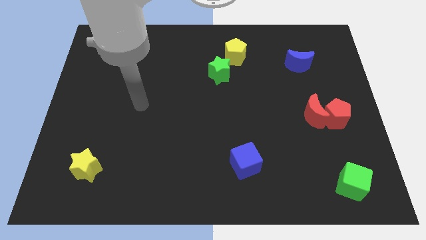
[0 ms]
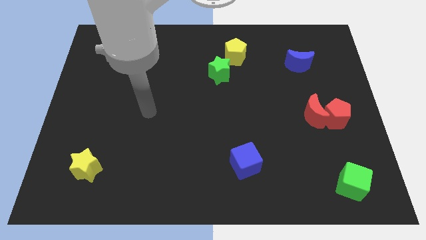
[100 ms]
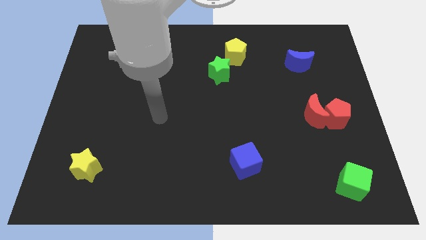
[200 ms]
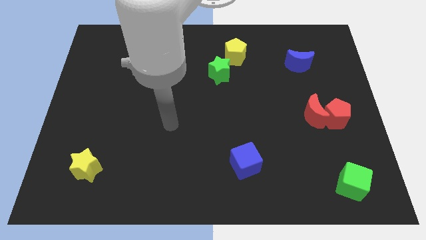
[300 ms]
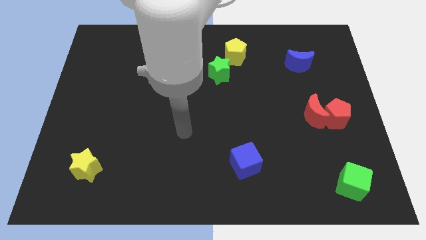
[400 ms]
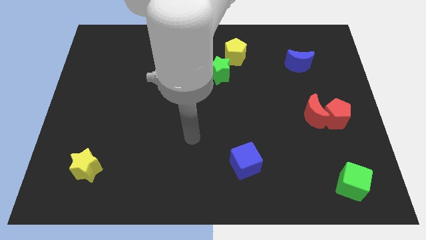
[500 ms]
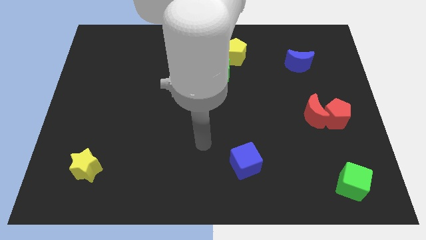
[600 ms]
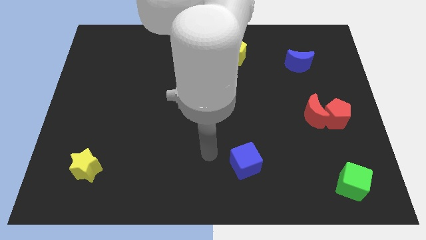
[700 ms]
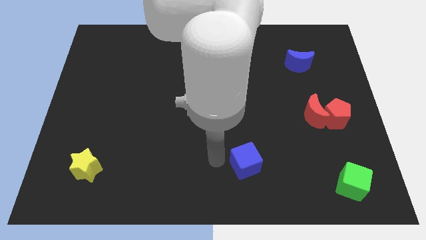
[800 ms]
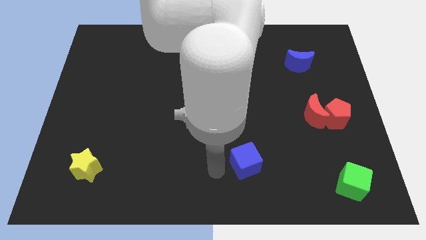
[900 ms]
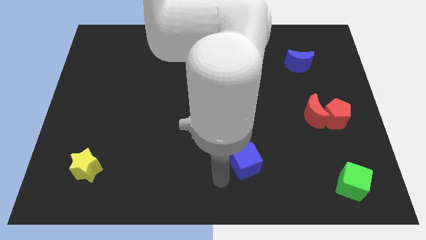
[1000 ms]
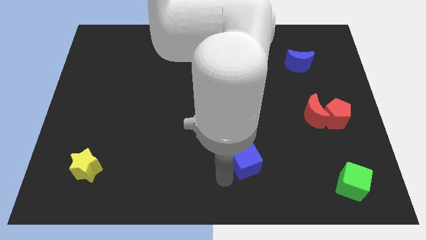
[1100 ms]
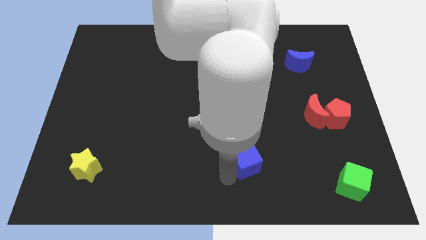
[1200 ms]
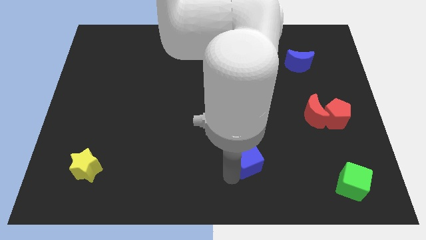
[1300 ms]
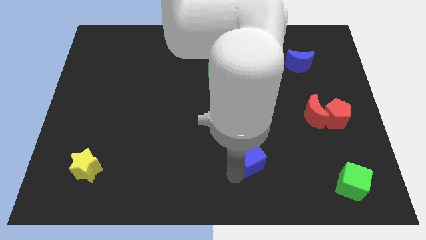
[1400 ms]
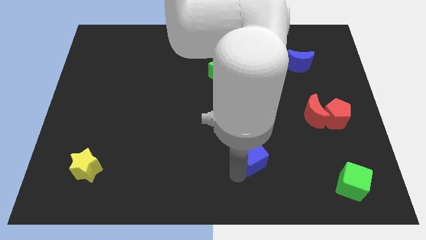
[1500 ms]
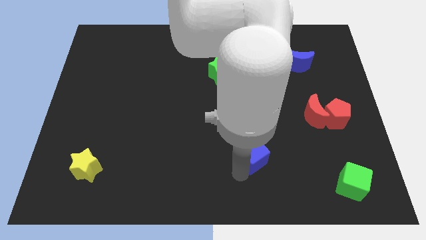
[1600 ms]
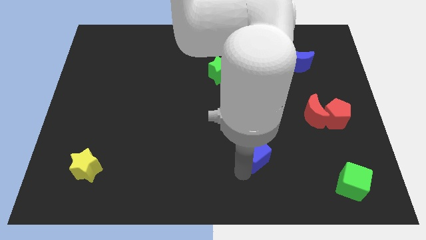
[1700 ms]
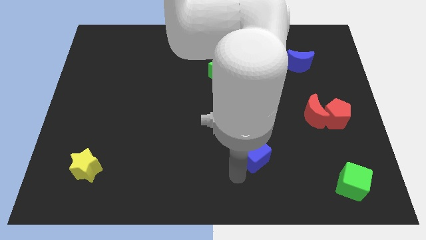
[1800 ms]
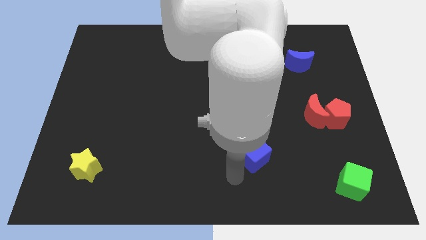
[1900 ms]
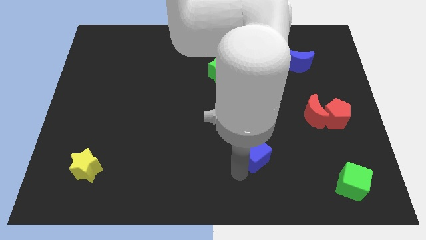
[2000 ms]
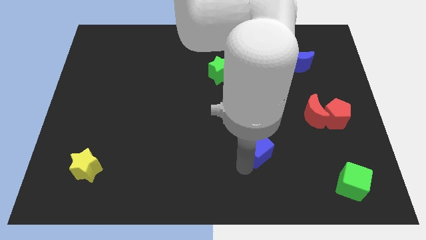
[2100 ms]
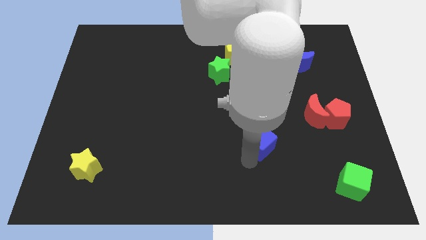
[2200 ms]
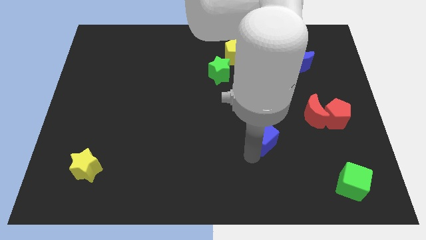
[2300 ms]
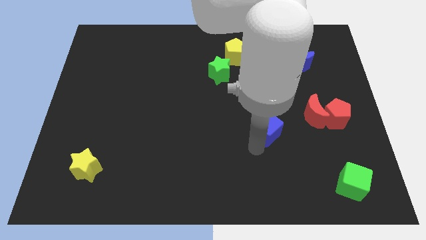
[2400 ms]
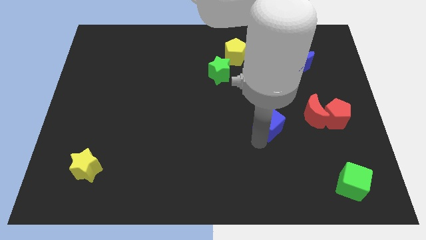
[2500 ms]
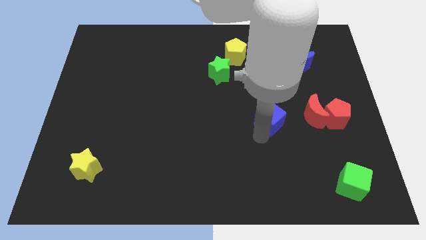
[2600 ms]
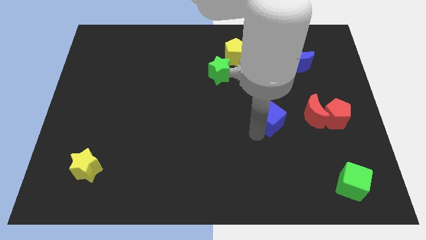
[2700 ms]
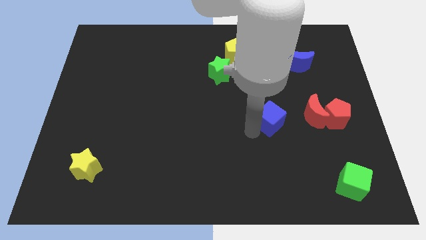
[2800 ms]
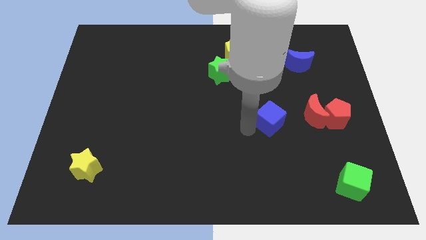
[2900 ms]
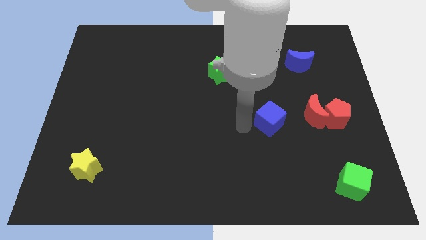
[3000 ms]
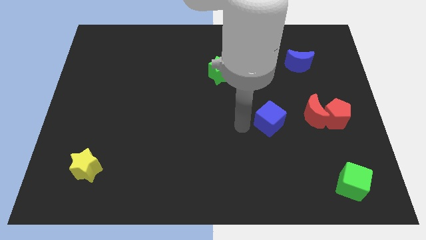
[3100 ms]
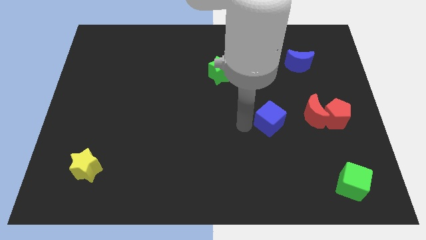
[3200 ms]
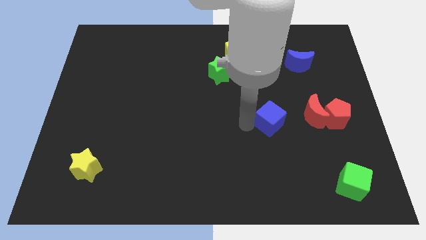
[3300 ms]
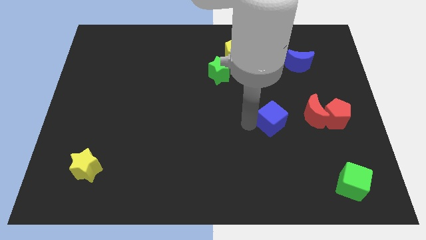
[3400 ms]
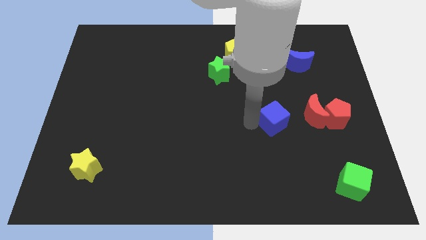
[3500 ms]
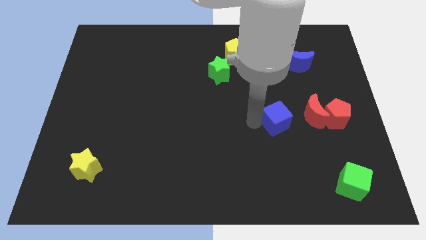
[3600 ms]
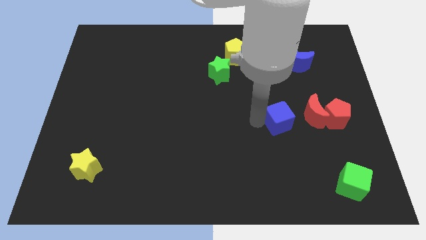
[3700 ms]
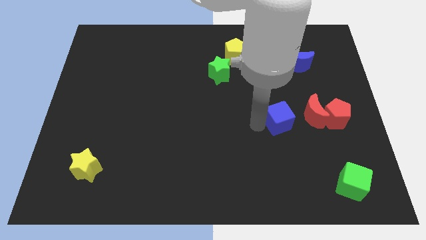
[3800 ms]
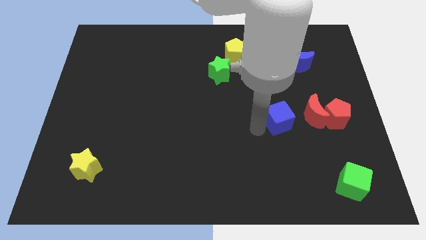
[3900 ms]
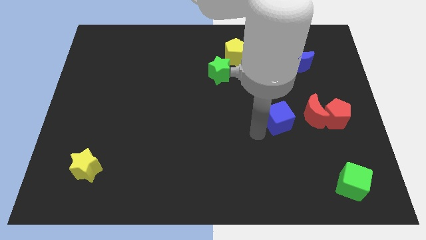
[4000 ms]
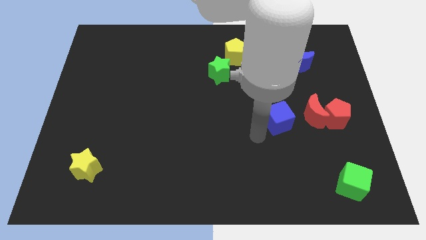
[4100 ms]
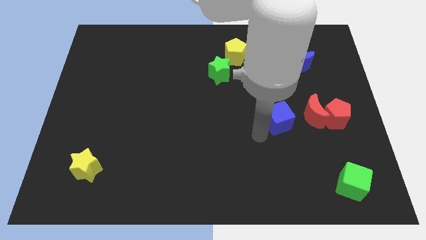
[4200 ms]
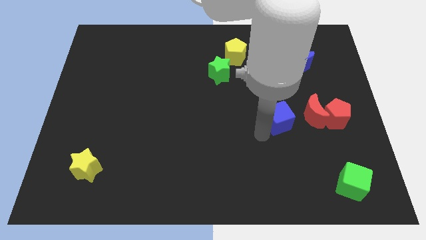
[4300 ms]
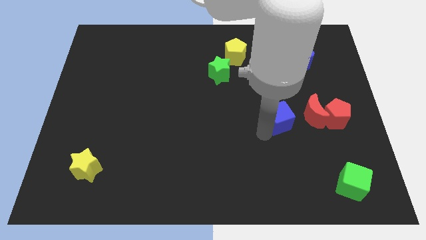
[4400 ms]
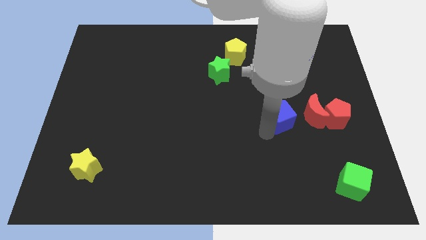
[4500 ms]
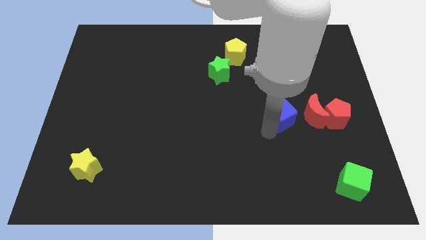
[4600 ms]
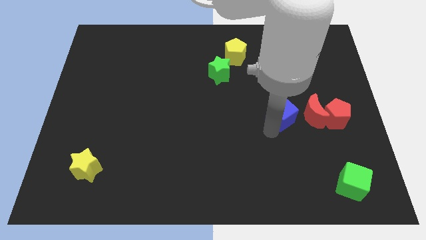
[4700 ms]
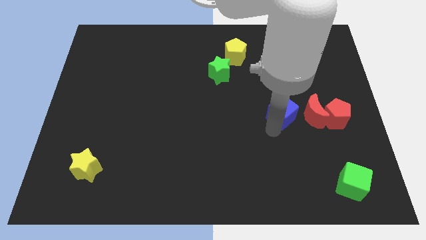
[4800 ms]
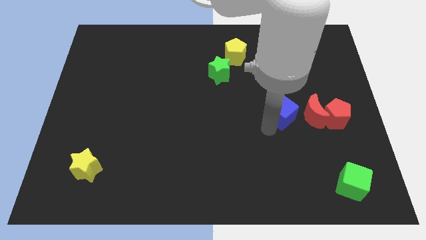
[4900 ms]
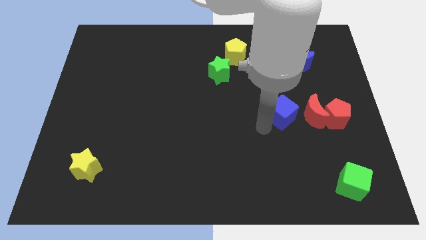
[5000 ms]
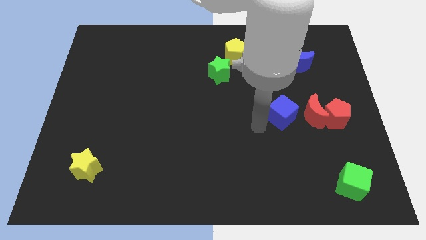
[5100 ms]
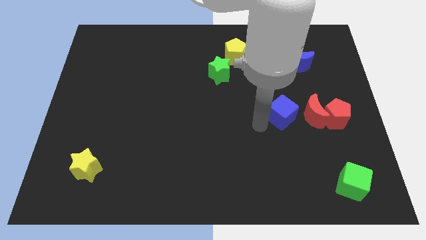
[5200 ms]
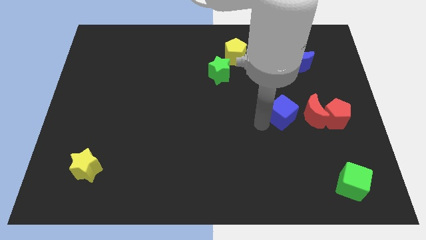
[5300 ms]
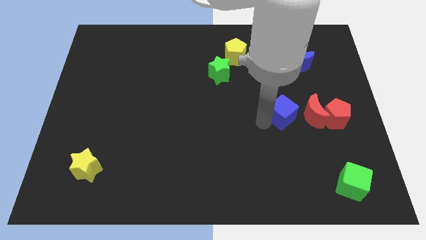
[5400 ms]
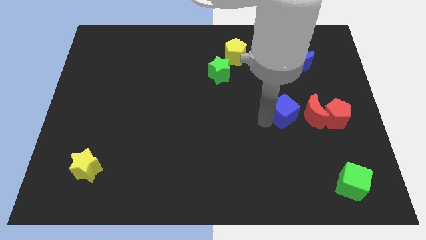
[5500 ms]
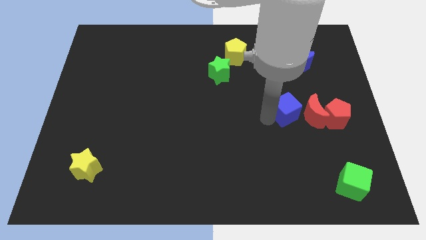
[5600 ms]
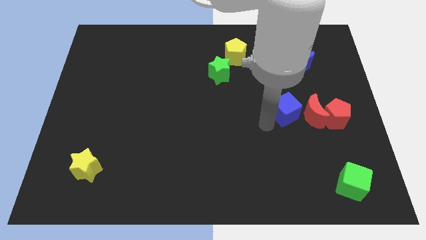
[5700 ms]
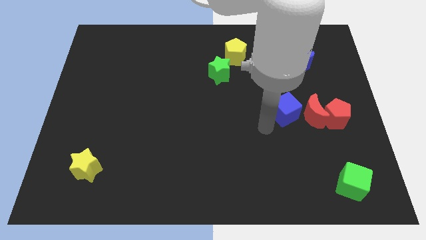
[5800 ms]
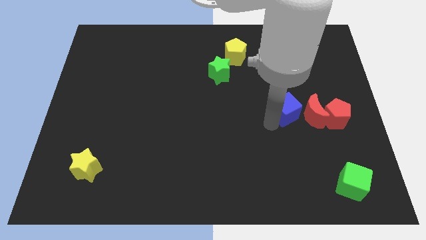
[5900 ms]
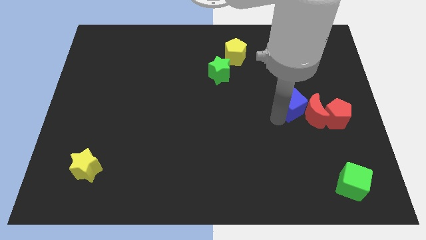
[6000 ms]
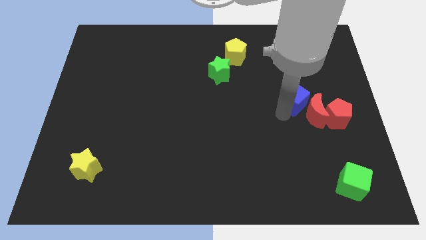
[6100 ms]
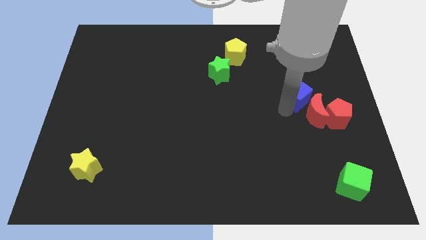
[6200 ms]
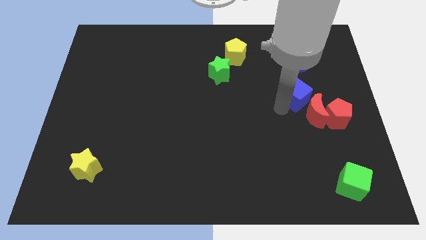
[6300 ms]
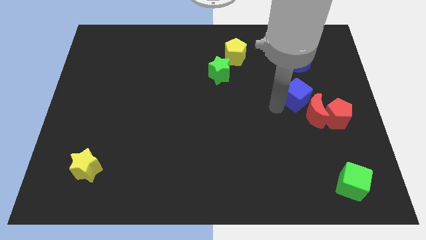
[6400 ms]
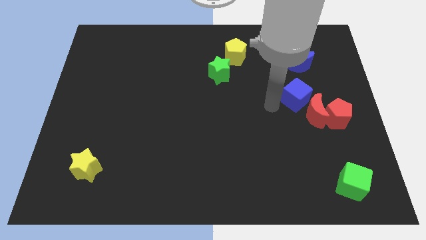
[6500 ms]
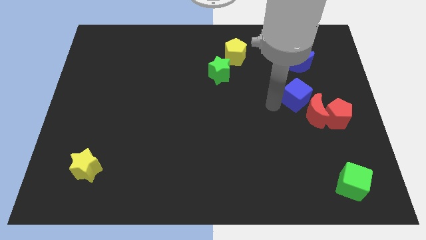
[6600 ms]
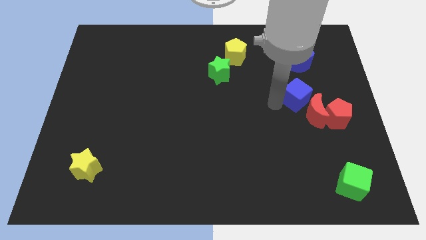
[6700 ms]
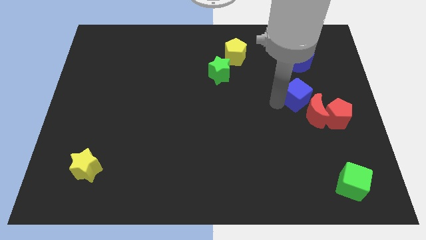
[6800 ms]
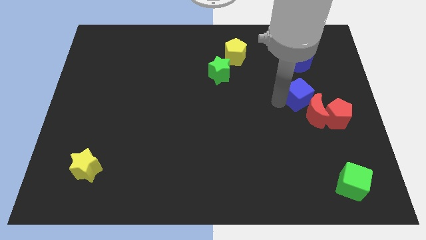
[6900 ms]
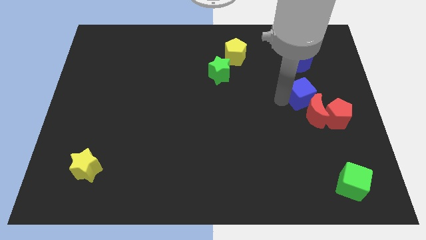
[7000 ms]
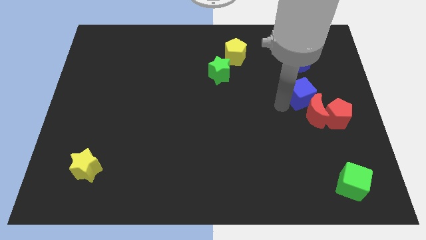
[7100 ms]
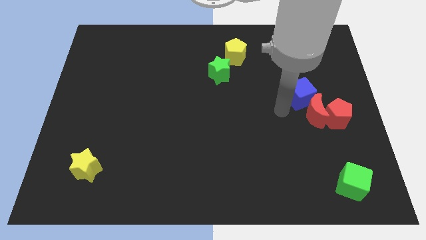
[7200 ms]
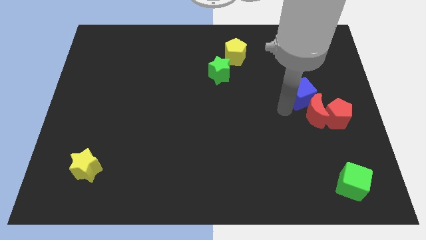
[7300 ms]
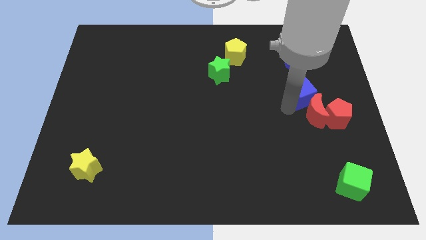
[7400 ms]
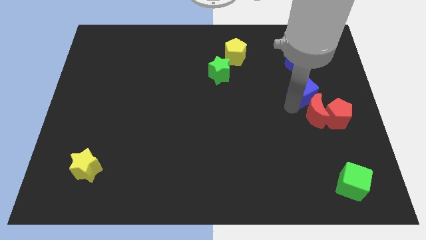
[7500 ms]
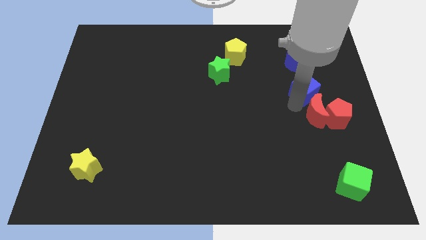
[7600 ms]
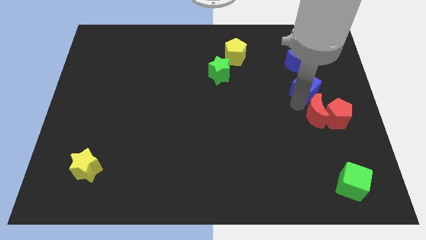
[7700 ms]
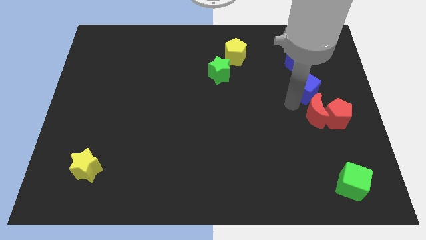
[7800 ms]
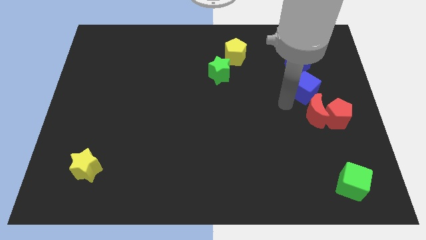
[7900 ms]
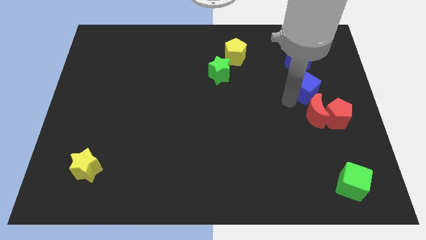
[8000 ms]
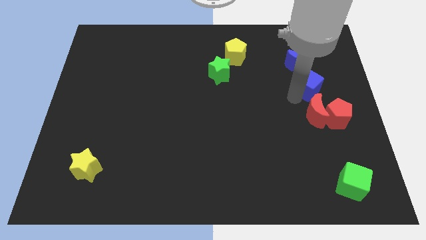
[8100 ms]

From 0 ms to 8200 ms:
slide the blue cube to the bottom right side of the blue moon

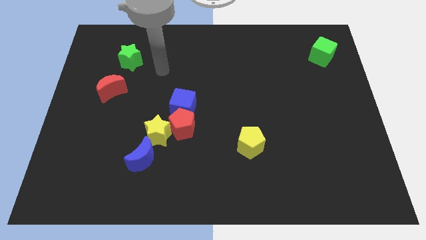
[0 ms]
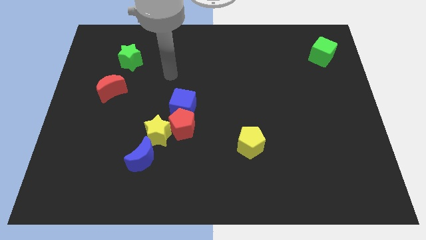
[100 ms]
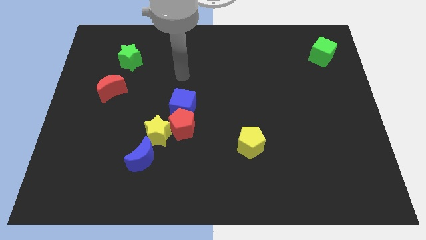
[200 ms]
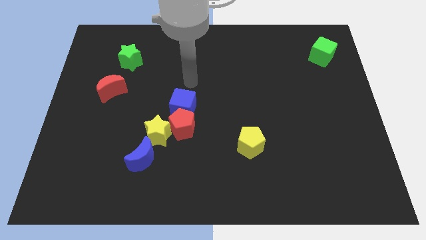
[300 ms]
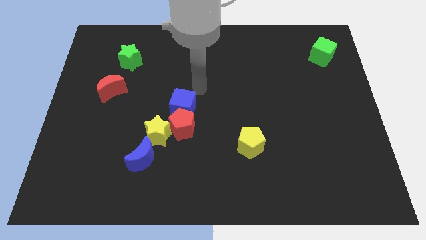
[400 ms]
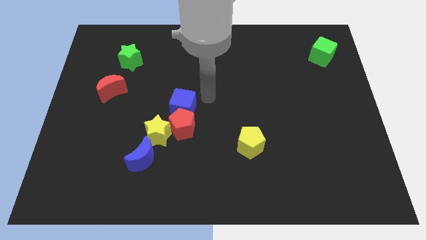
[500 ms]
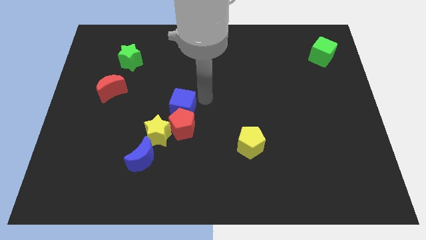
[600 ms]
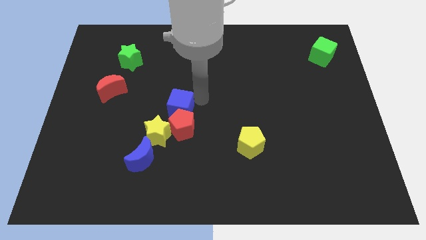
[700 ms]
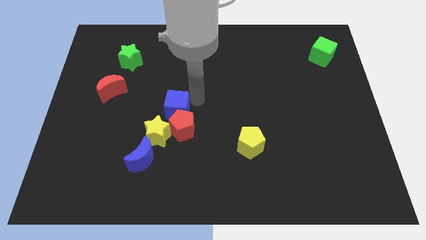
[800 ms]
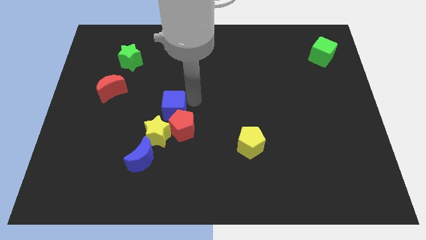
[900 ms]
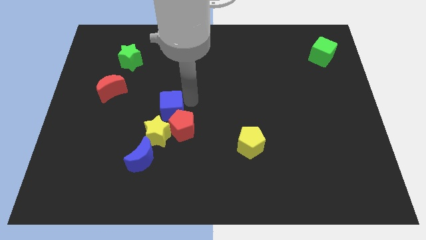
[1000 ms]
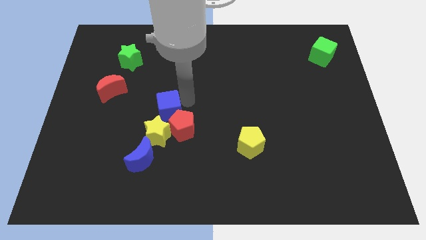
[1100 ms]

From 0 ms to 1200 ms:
slide the blue cube to the top side of the blue moon
